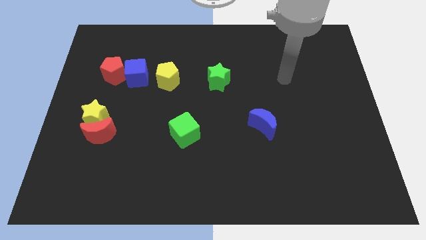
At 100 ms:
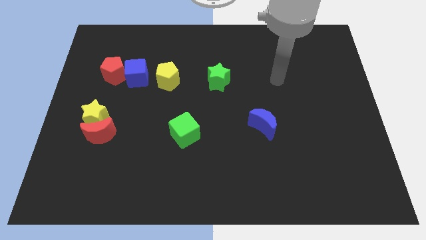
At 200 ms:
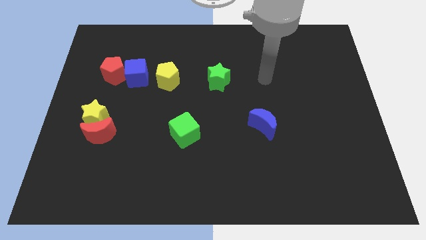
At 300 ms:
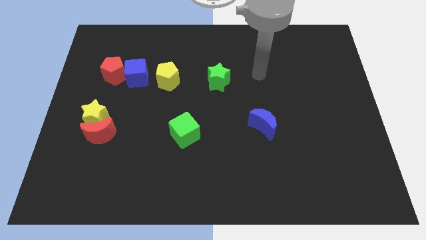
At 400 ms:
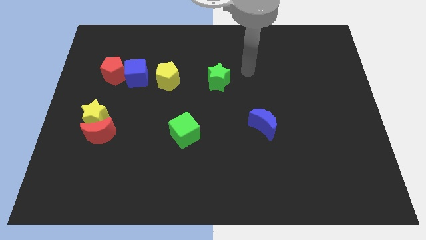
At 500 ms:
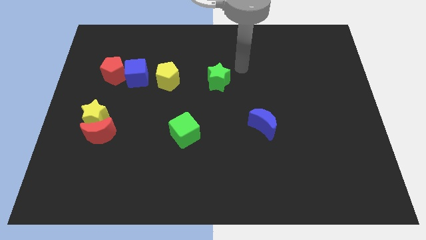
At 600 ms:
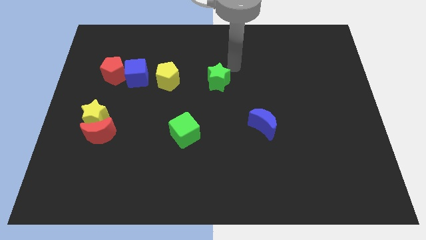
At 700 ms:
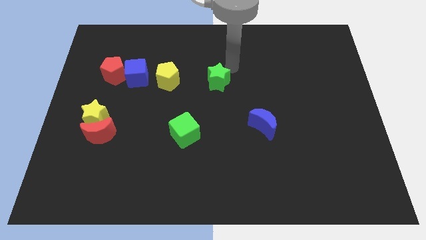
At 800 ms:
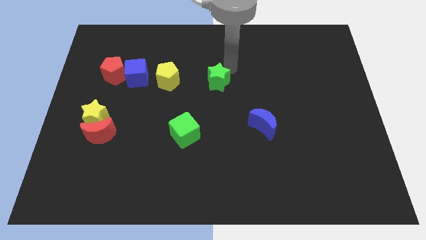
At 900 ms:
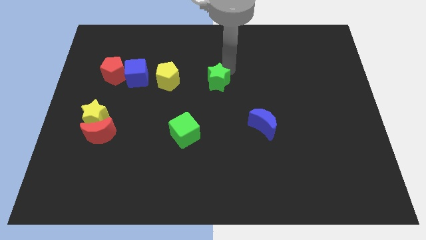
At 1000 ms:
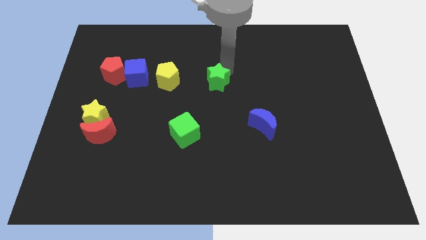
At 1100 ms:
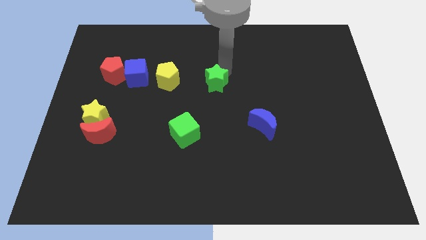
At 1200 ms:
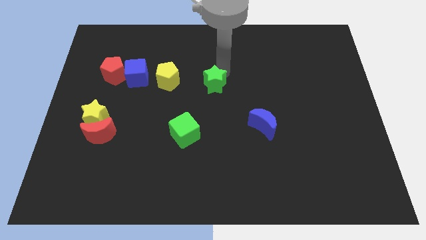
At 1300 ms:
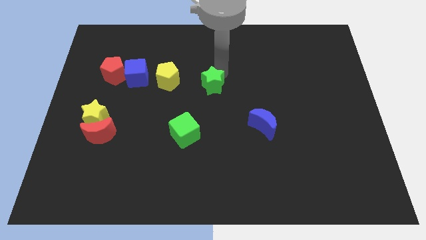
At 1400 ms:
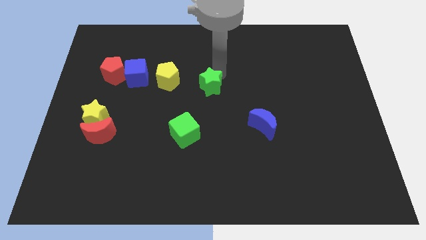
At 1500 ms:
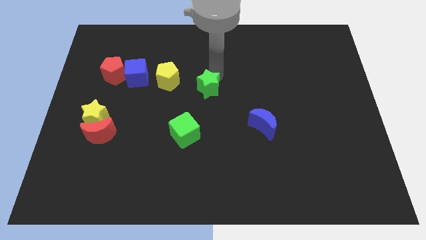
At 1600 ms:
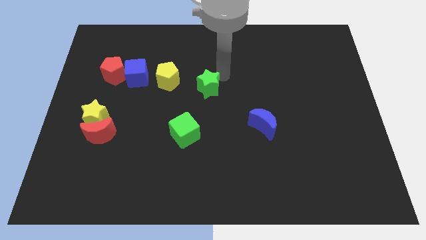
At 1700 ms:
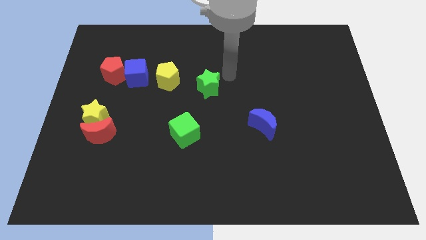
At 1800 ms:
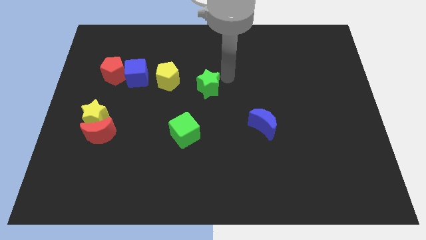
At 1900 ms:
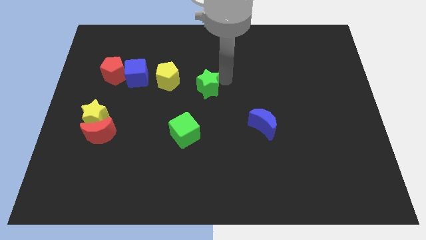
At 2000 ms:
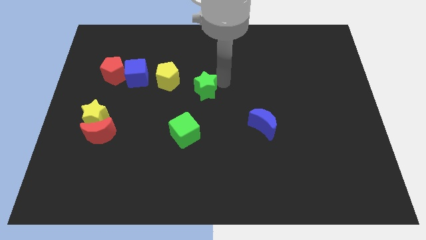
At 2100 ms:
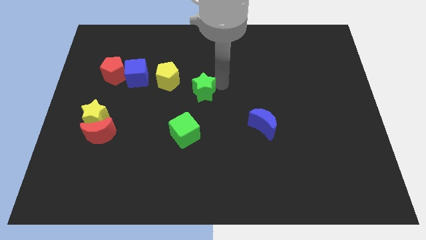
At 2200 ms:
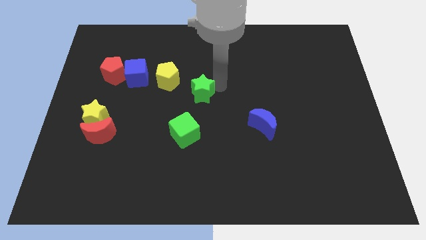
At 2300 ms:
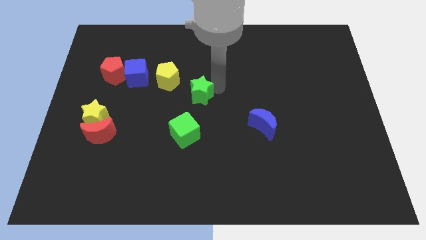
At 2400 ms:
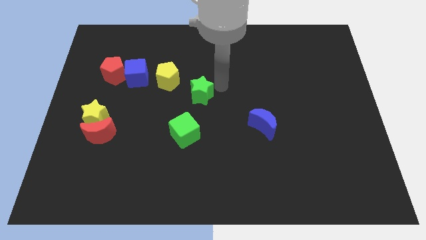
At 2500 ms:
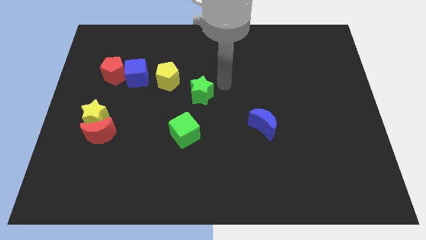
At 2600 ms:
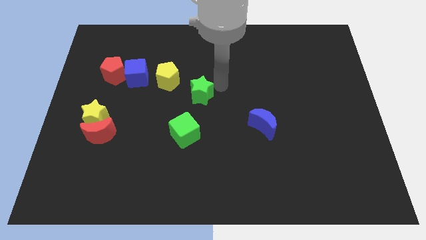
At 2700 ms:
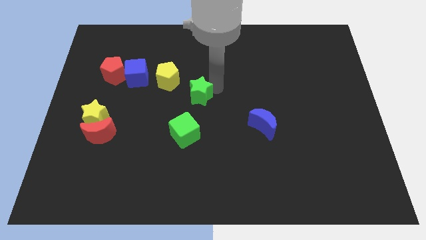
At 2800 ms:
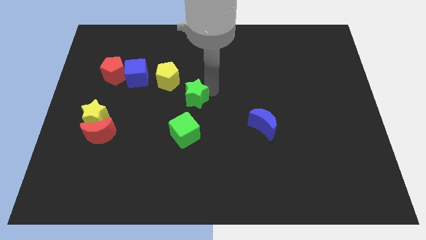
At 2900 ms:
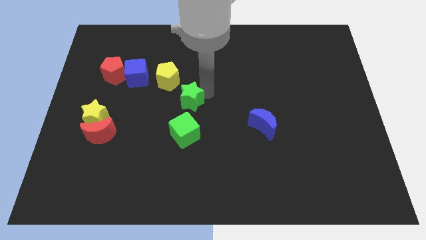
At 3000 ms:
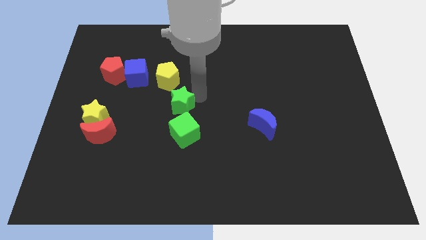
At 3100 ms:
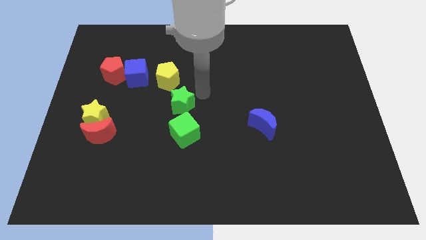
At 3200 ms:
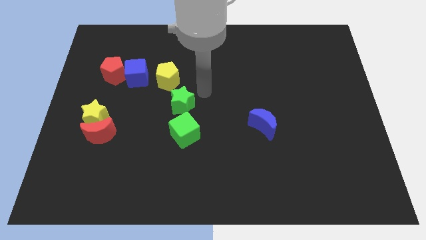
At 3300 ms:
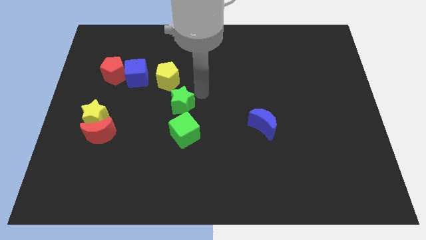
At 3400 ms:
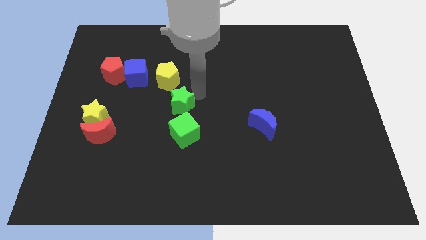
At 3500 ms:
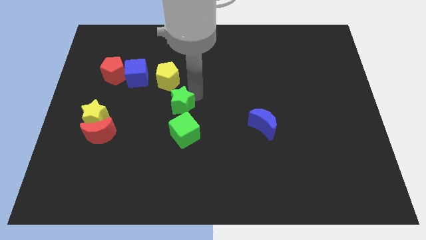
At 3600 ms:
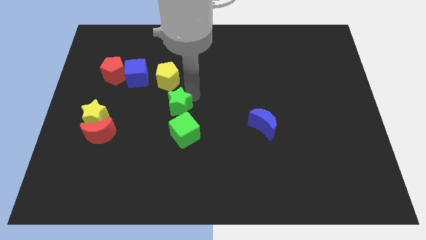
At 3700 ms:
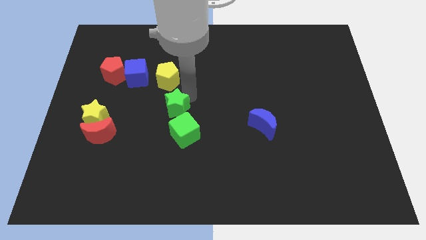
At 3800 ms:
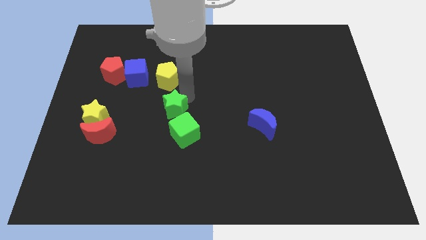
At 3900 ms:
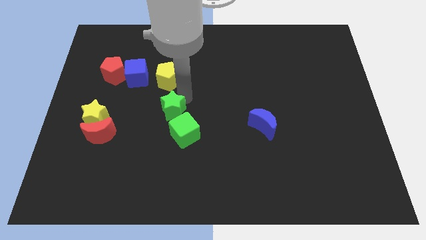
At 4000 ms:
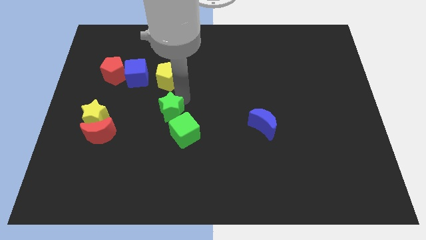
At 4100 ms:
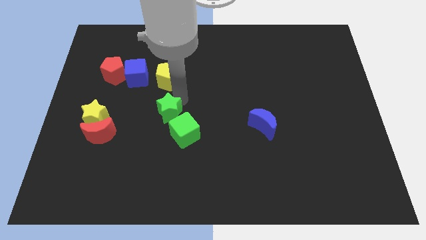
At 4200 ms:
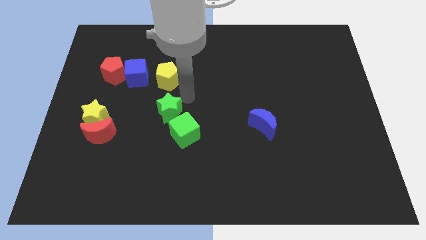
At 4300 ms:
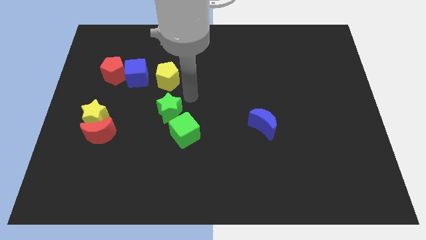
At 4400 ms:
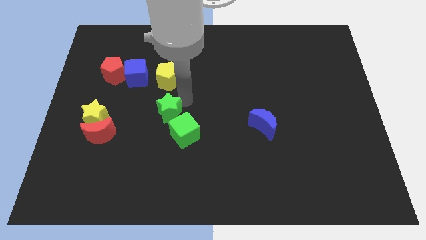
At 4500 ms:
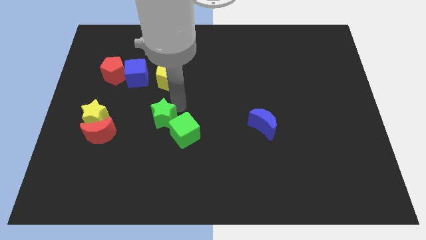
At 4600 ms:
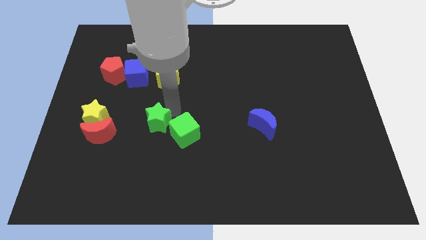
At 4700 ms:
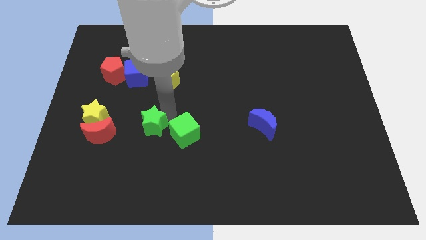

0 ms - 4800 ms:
push the green star diagonally down and left

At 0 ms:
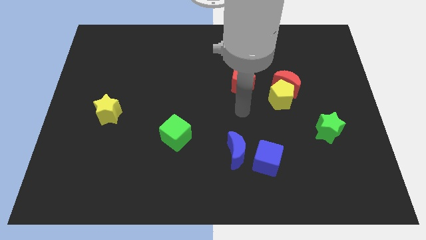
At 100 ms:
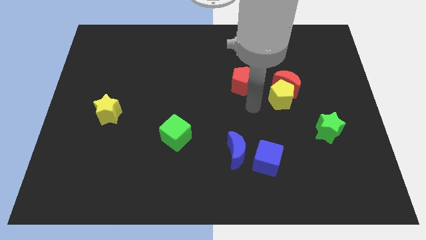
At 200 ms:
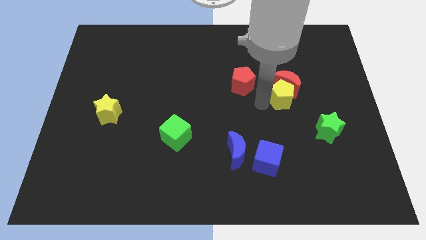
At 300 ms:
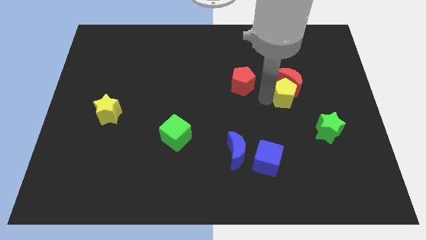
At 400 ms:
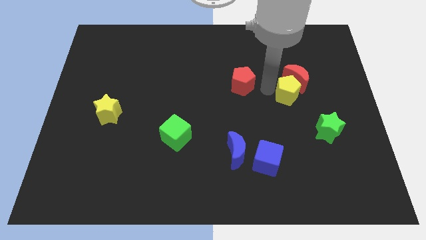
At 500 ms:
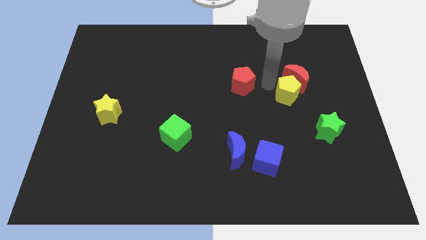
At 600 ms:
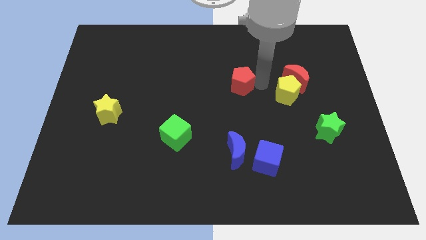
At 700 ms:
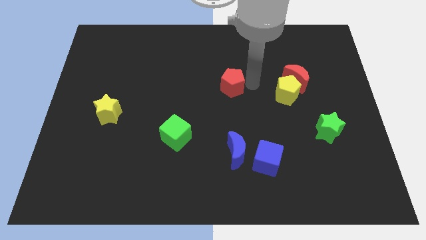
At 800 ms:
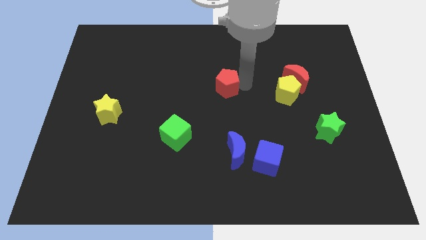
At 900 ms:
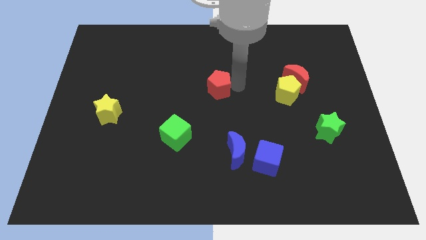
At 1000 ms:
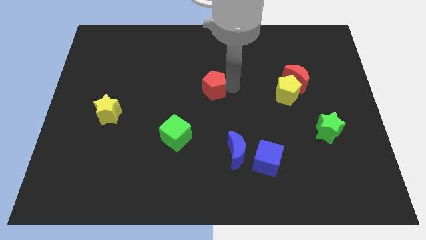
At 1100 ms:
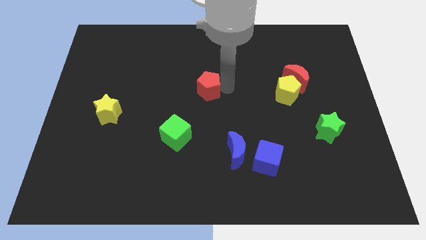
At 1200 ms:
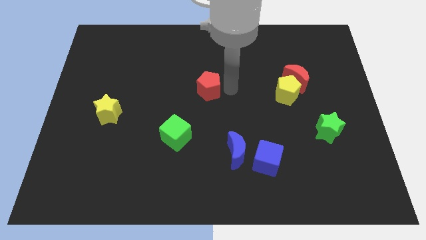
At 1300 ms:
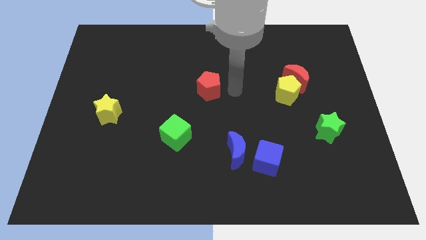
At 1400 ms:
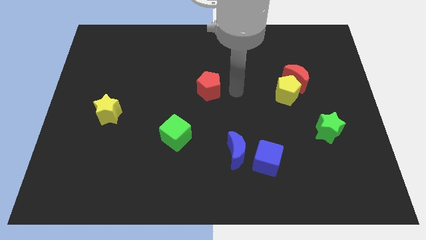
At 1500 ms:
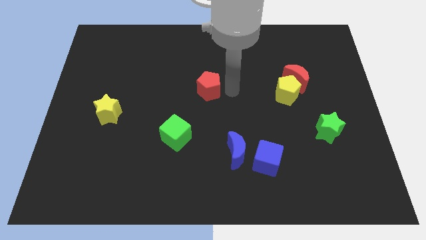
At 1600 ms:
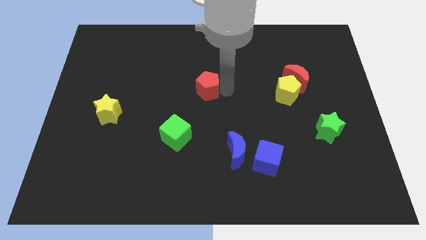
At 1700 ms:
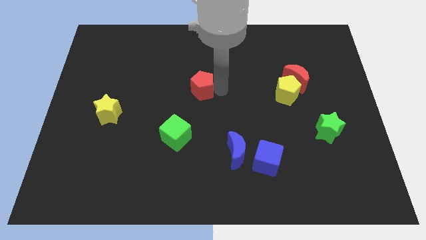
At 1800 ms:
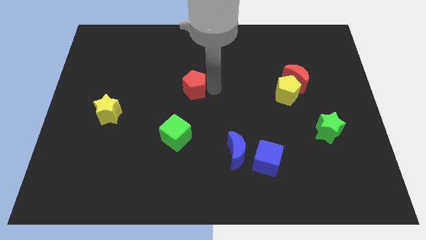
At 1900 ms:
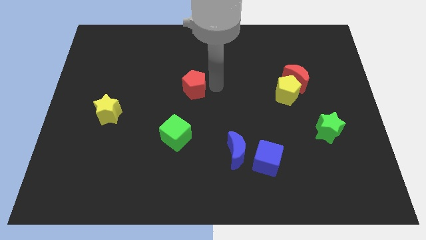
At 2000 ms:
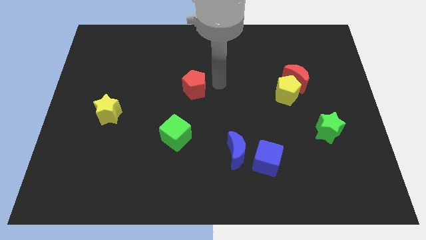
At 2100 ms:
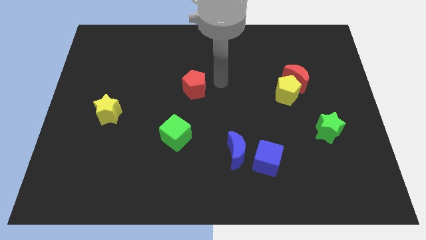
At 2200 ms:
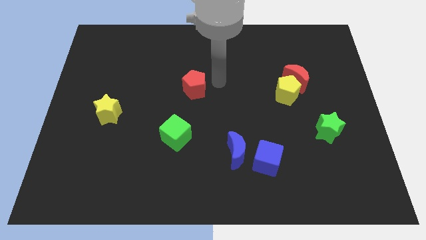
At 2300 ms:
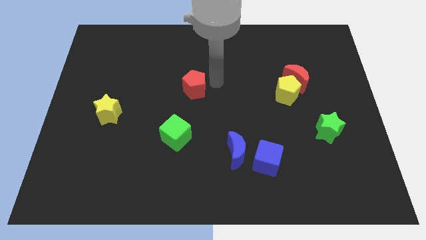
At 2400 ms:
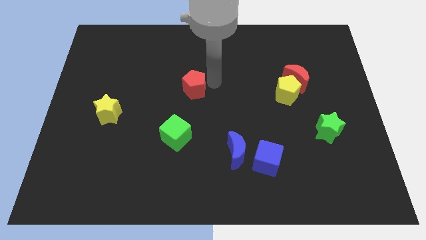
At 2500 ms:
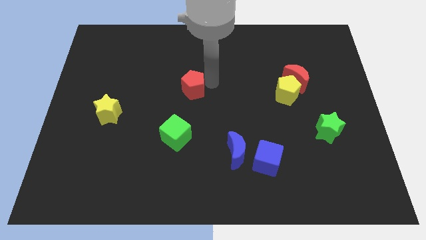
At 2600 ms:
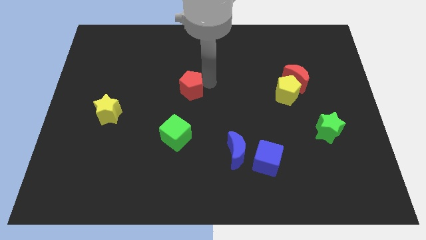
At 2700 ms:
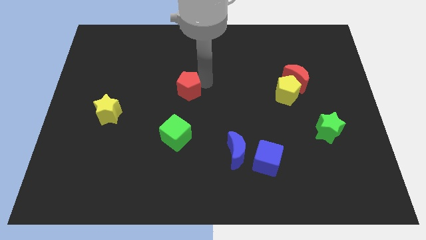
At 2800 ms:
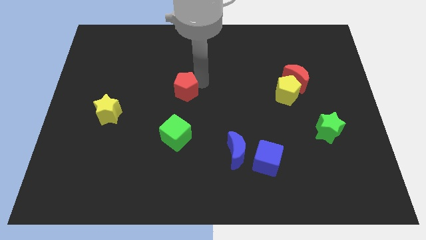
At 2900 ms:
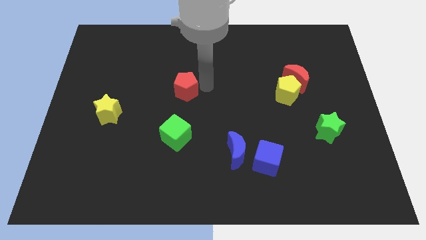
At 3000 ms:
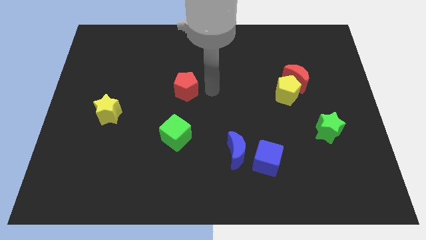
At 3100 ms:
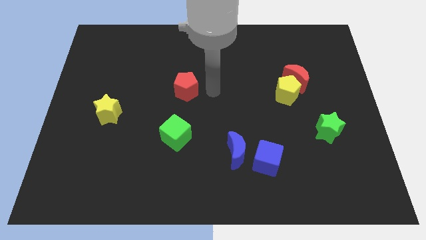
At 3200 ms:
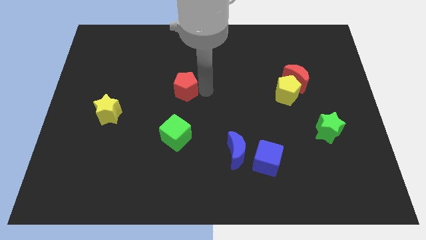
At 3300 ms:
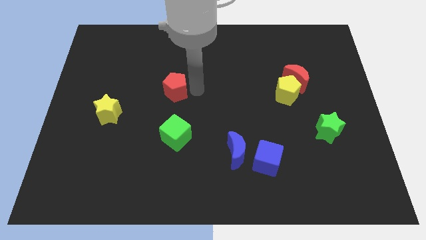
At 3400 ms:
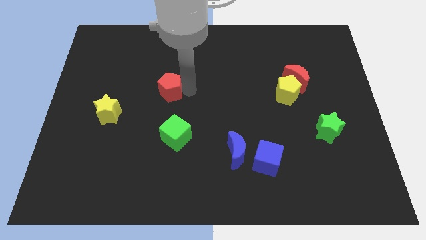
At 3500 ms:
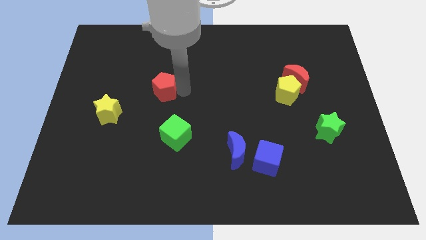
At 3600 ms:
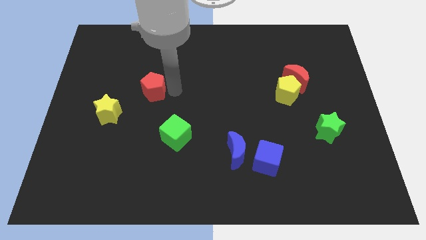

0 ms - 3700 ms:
move the red pentagon to the left
